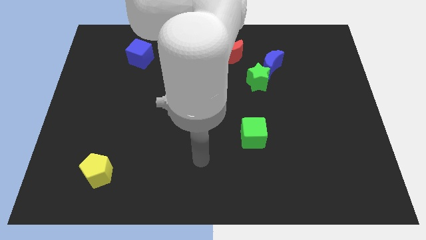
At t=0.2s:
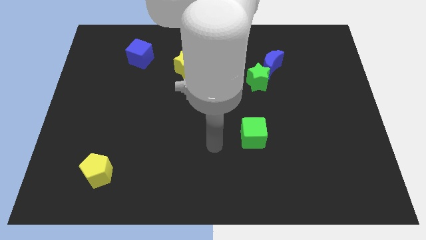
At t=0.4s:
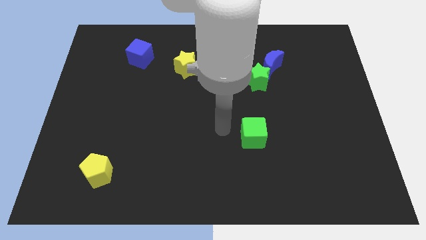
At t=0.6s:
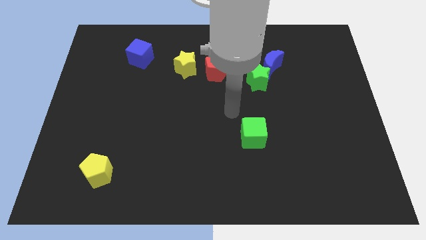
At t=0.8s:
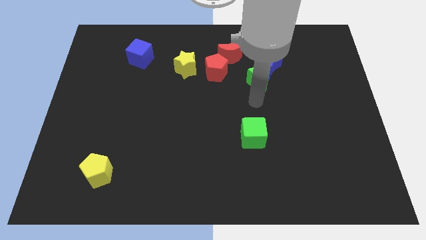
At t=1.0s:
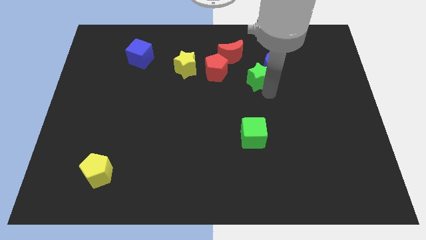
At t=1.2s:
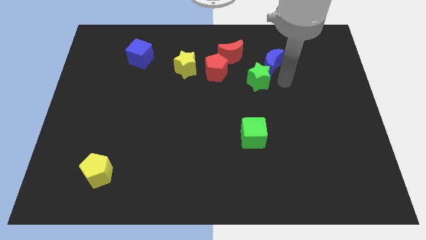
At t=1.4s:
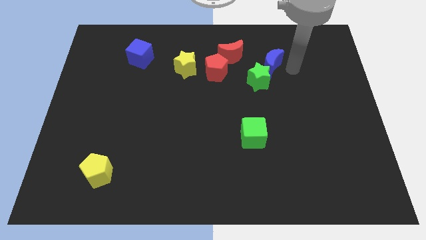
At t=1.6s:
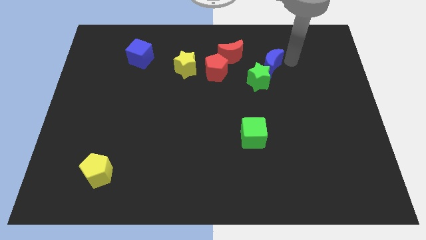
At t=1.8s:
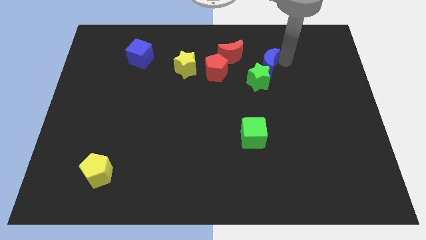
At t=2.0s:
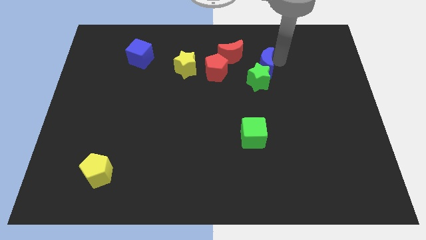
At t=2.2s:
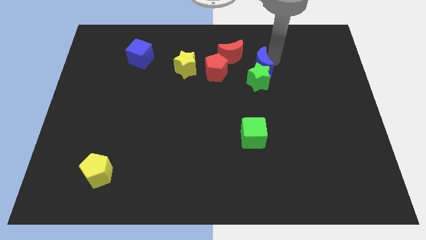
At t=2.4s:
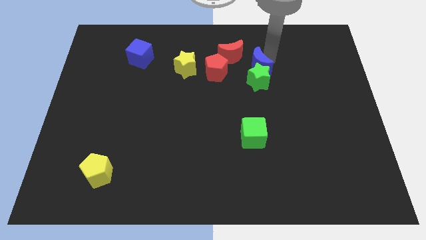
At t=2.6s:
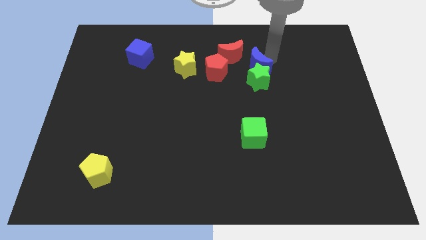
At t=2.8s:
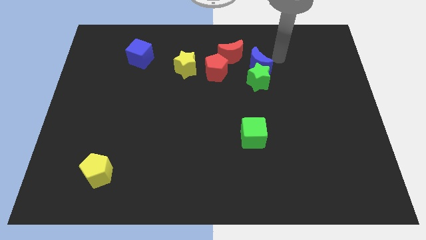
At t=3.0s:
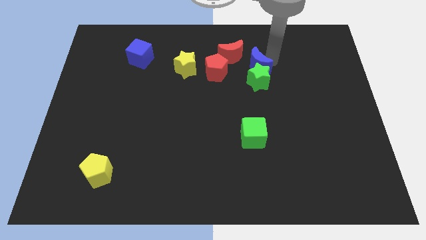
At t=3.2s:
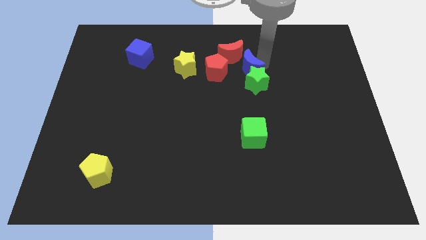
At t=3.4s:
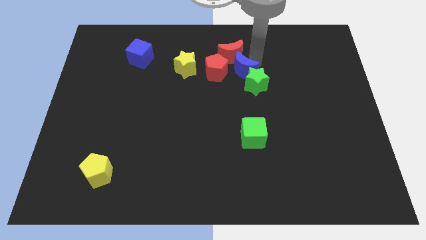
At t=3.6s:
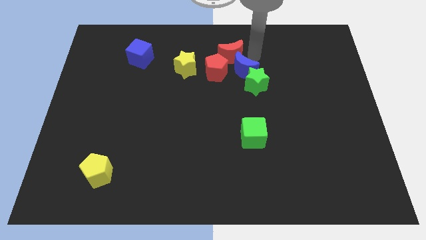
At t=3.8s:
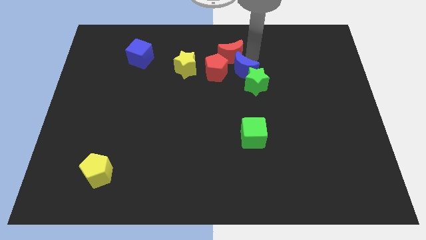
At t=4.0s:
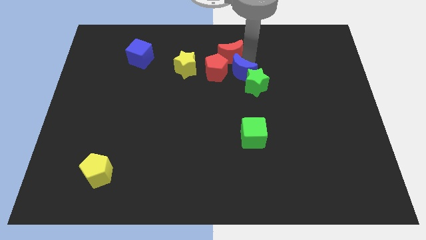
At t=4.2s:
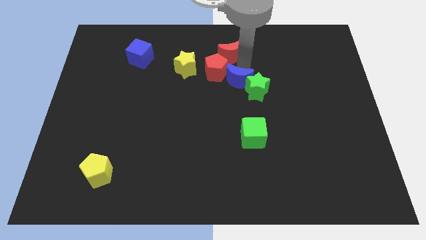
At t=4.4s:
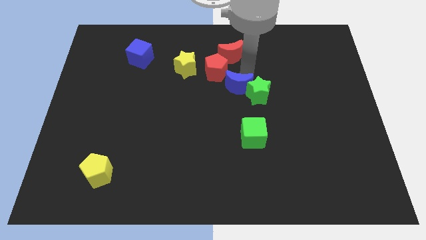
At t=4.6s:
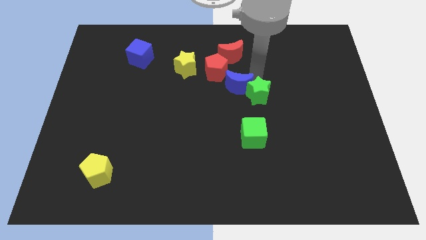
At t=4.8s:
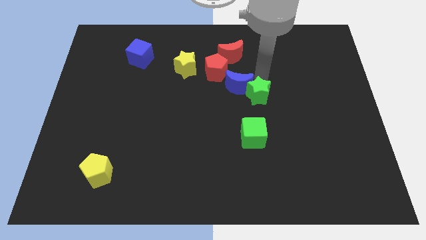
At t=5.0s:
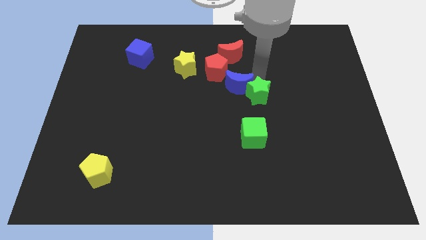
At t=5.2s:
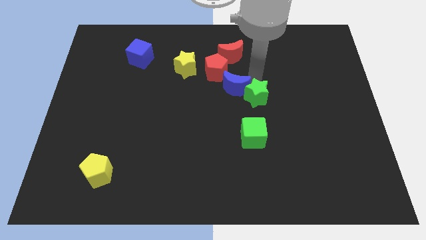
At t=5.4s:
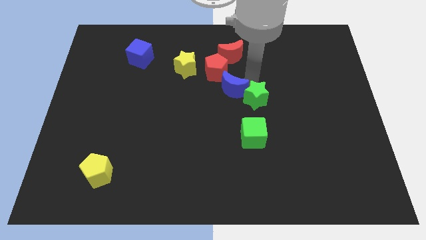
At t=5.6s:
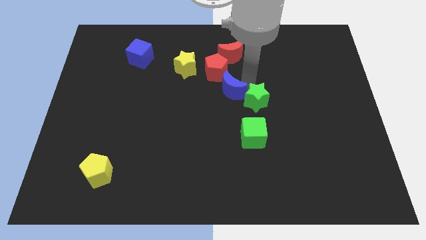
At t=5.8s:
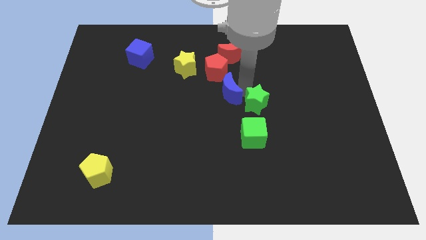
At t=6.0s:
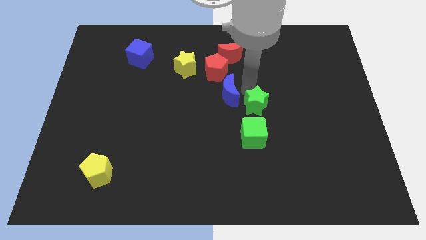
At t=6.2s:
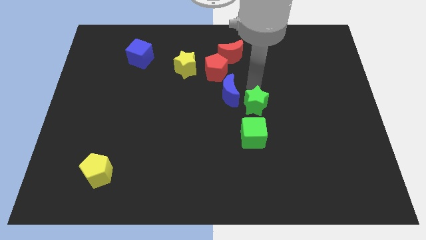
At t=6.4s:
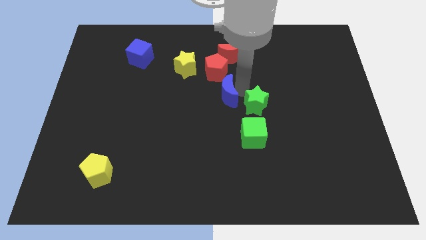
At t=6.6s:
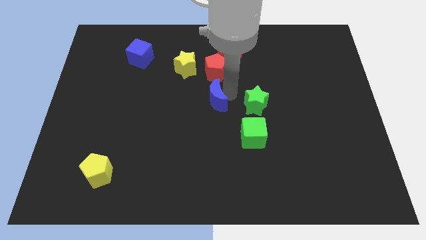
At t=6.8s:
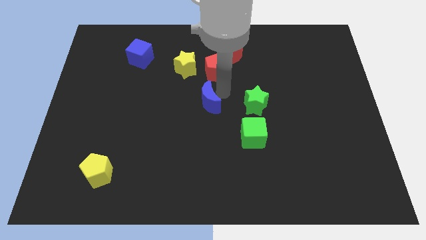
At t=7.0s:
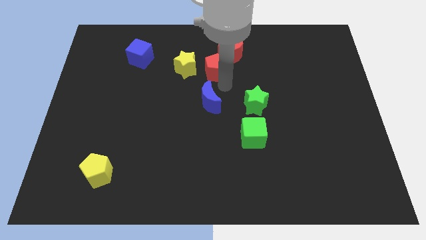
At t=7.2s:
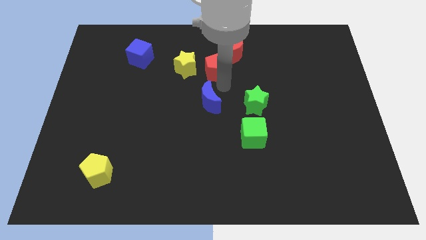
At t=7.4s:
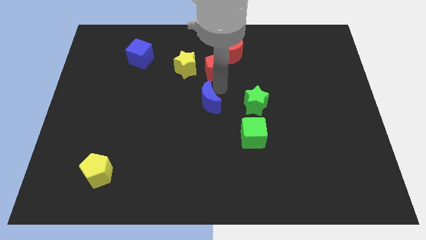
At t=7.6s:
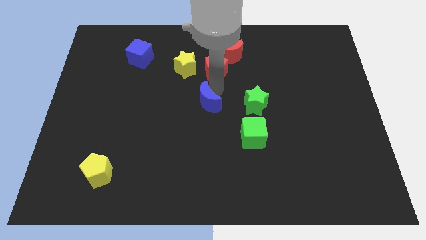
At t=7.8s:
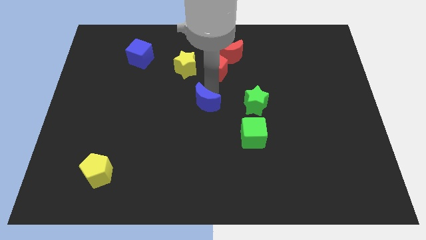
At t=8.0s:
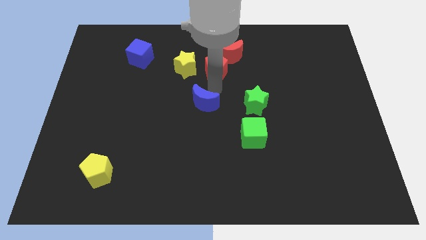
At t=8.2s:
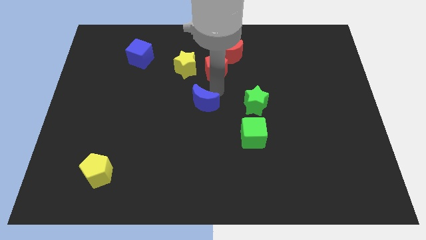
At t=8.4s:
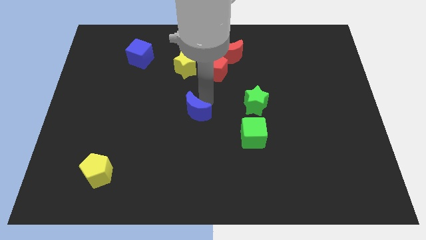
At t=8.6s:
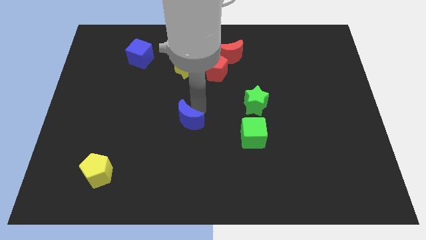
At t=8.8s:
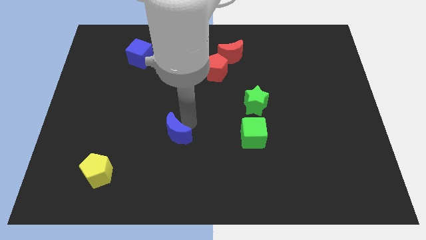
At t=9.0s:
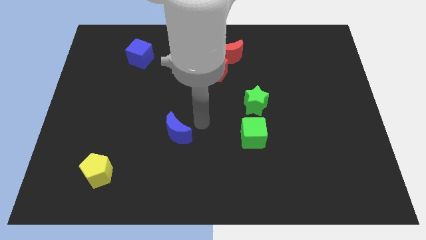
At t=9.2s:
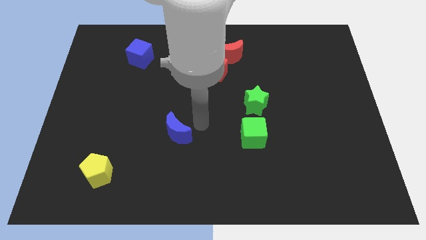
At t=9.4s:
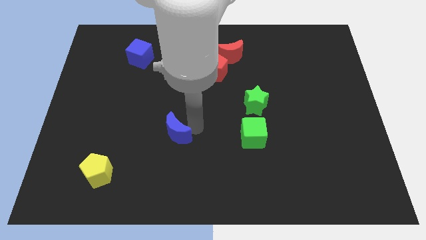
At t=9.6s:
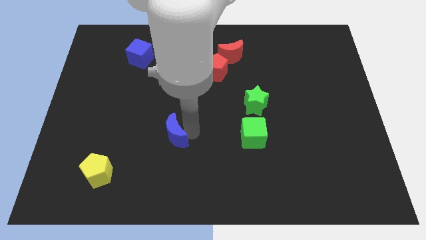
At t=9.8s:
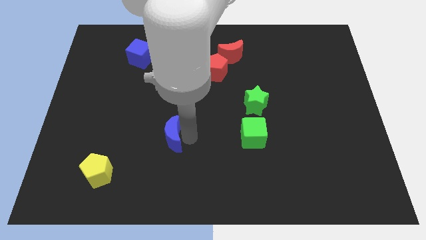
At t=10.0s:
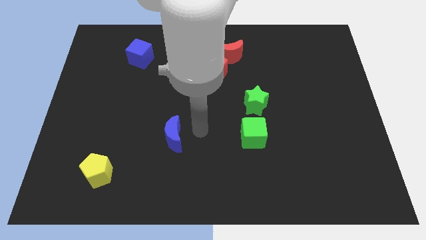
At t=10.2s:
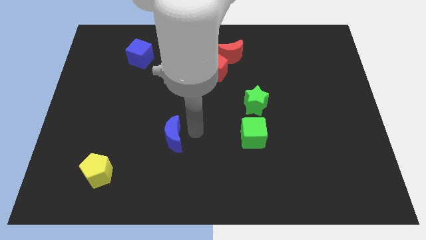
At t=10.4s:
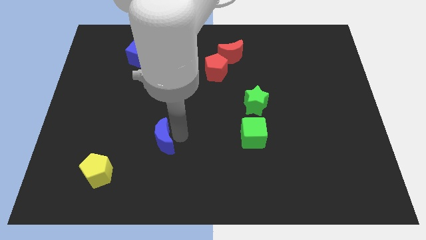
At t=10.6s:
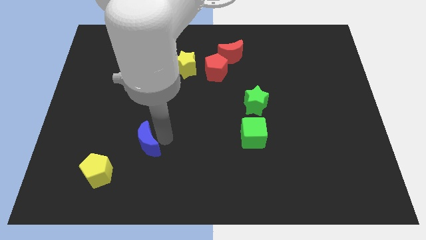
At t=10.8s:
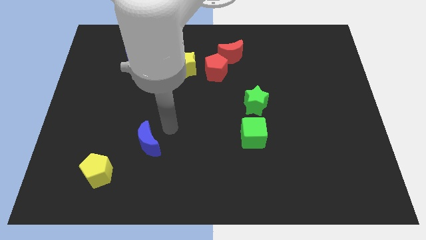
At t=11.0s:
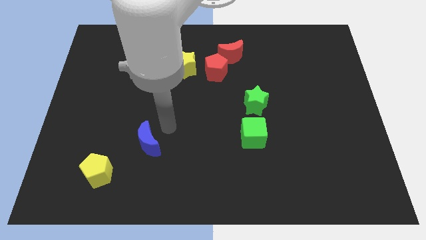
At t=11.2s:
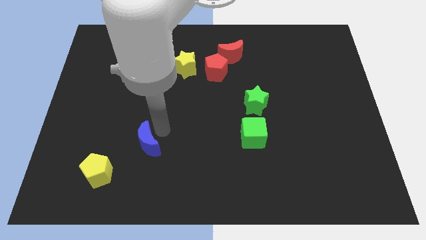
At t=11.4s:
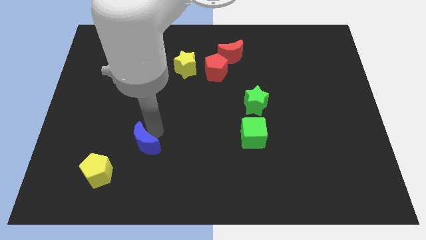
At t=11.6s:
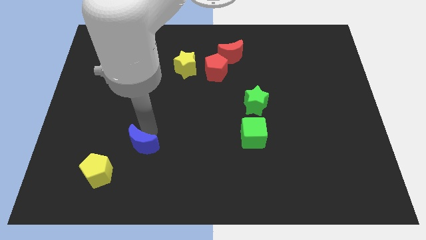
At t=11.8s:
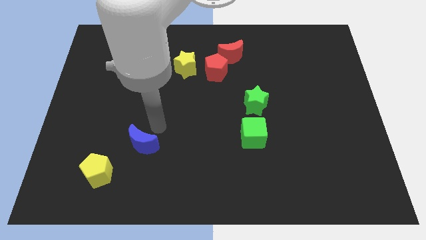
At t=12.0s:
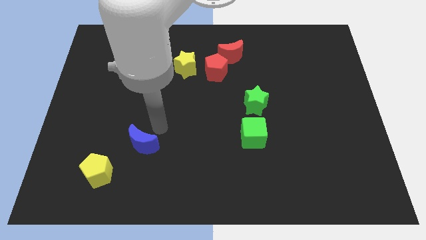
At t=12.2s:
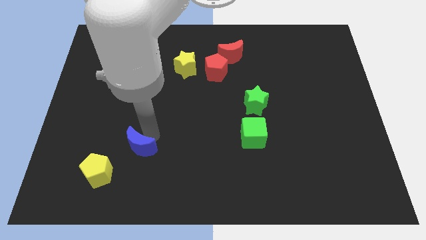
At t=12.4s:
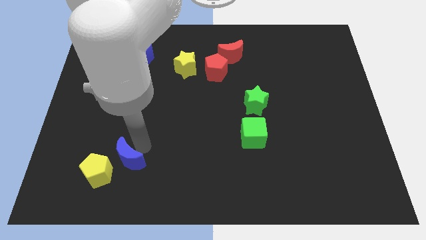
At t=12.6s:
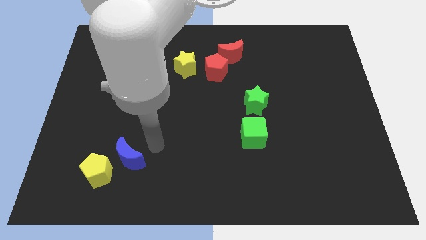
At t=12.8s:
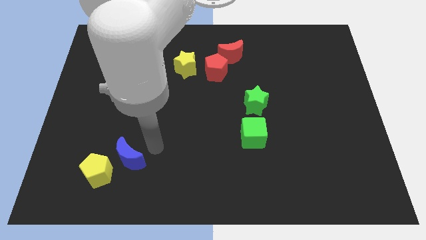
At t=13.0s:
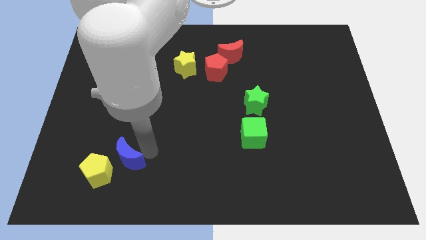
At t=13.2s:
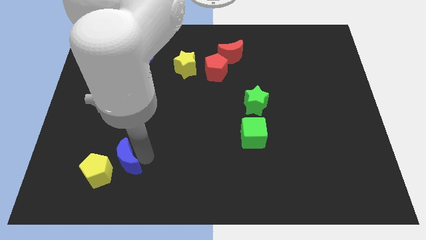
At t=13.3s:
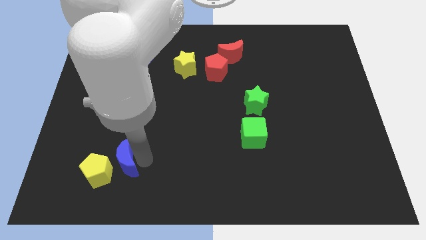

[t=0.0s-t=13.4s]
slide the blue moon close to the yellow pentagon

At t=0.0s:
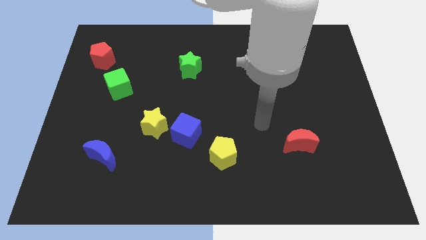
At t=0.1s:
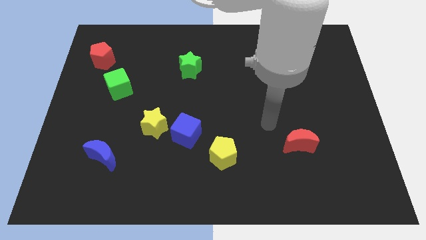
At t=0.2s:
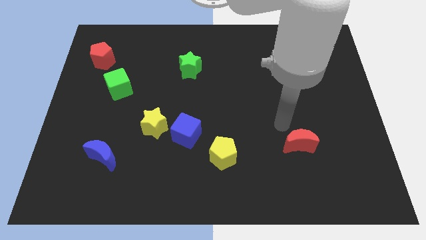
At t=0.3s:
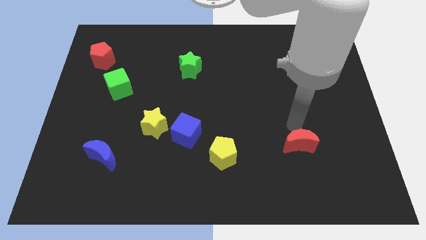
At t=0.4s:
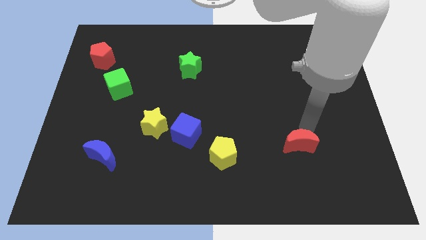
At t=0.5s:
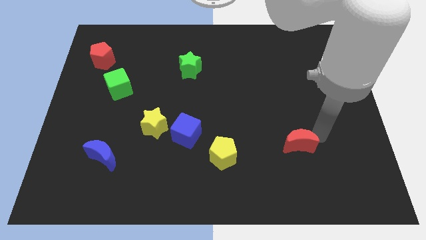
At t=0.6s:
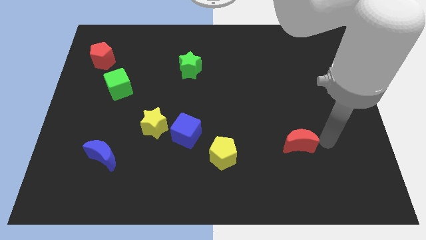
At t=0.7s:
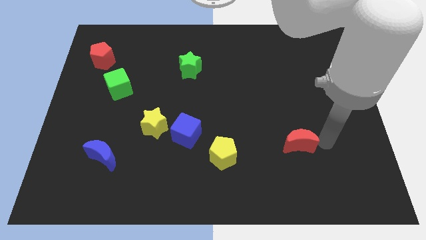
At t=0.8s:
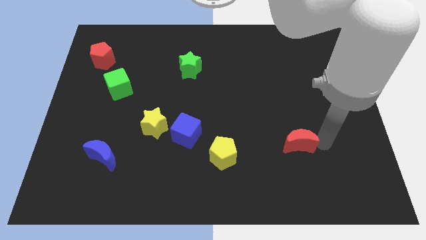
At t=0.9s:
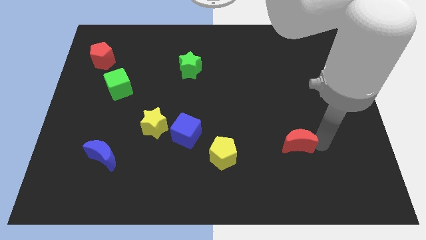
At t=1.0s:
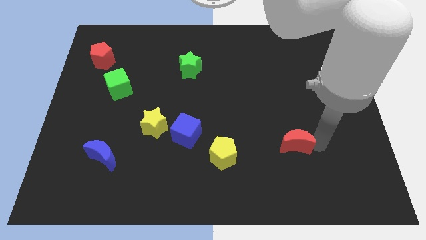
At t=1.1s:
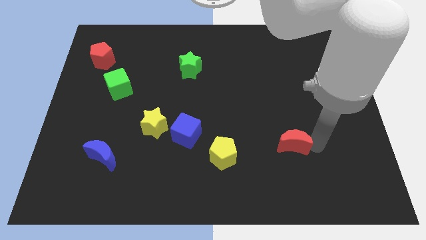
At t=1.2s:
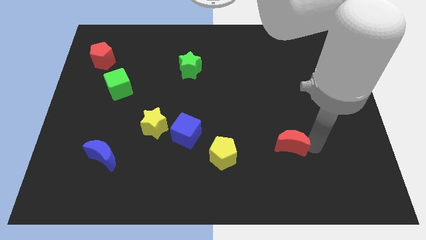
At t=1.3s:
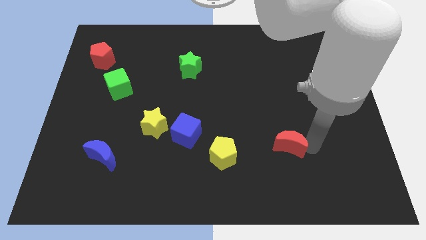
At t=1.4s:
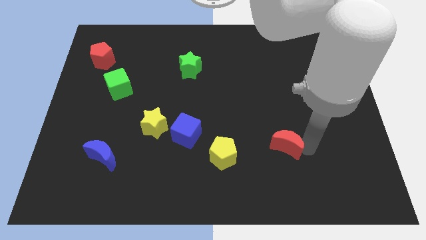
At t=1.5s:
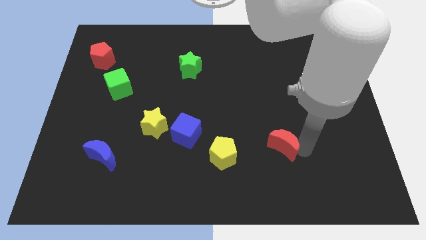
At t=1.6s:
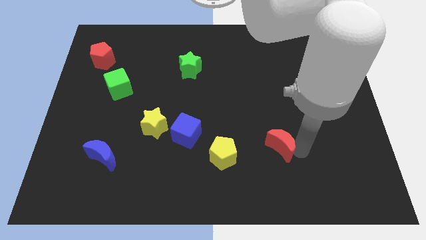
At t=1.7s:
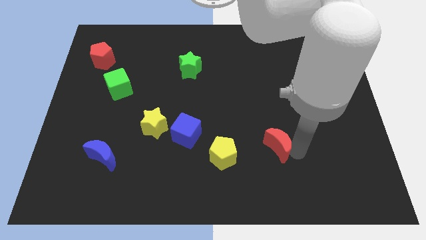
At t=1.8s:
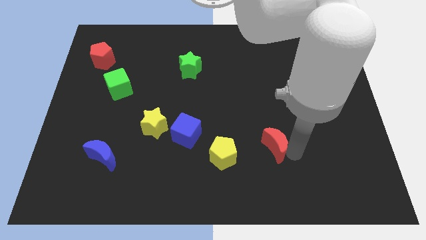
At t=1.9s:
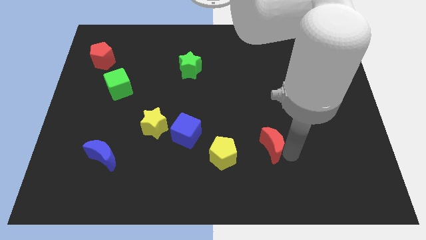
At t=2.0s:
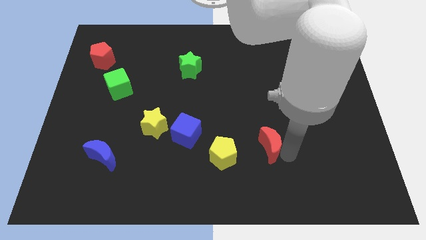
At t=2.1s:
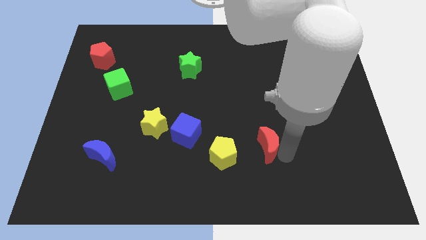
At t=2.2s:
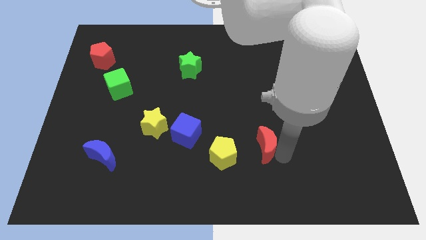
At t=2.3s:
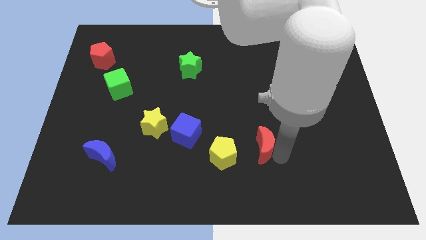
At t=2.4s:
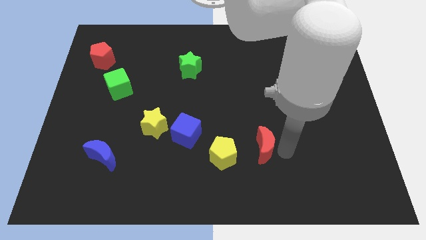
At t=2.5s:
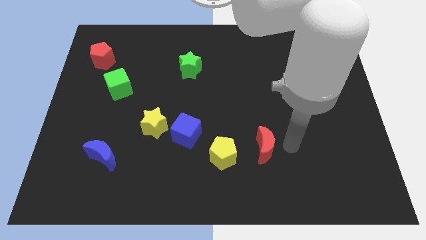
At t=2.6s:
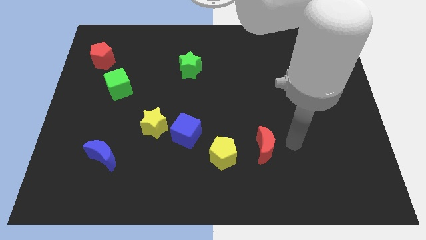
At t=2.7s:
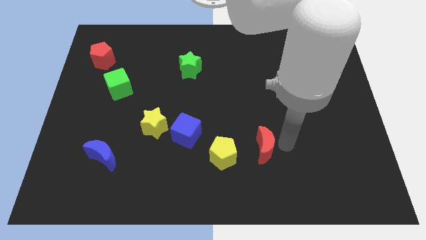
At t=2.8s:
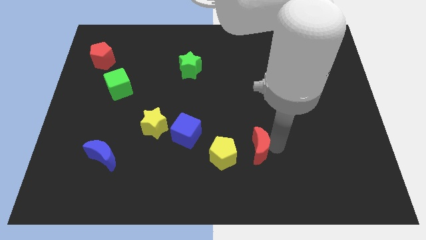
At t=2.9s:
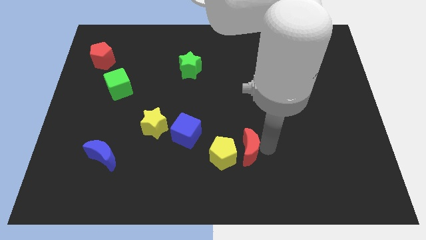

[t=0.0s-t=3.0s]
slide the red moon next to the yellow pentagon
